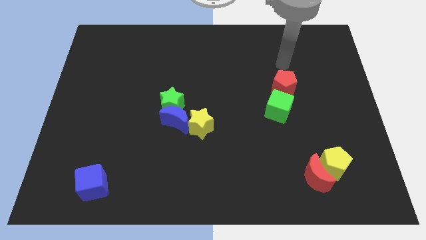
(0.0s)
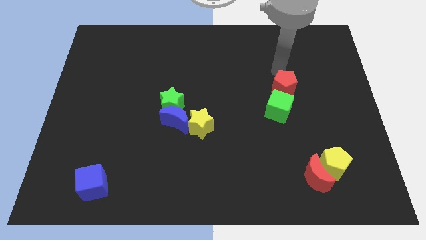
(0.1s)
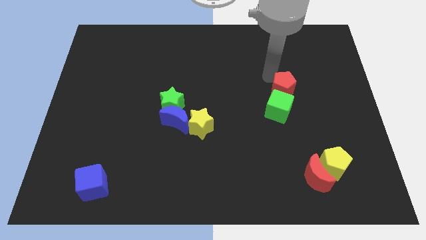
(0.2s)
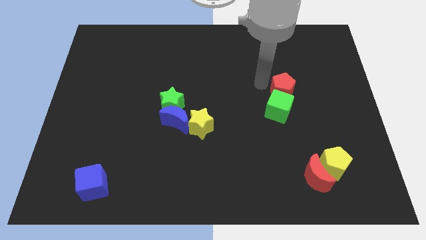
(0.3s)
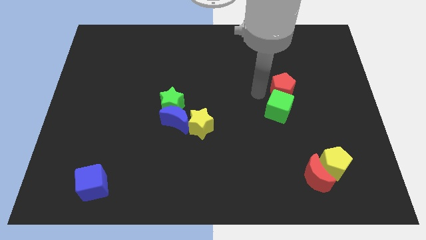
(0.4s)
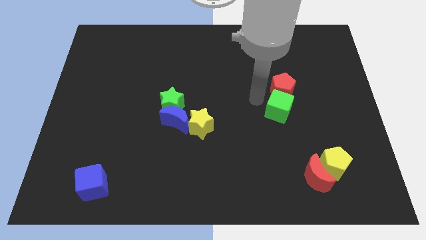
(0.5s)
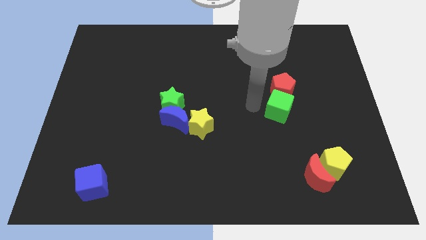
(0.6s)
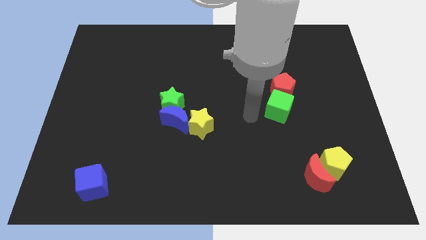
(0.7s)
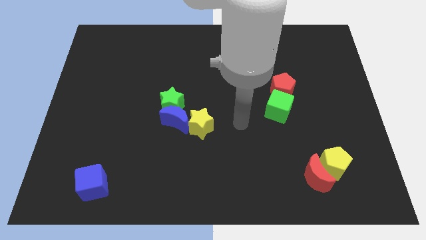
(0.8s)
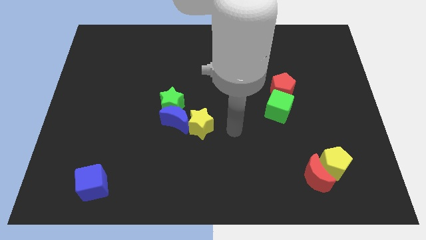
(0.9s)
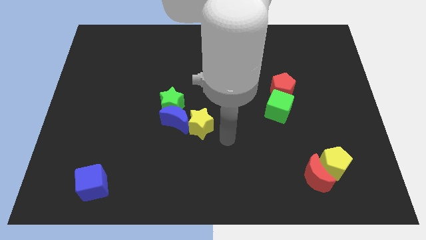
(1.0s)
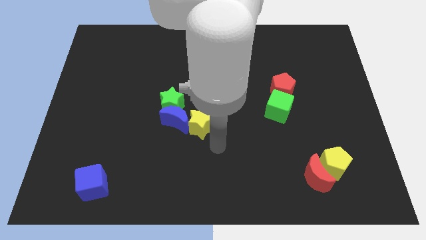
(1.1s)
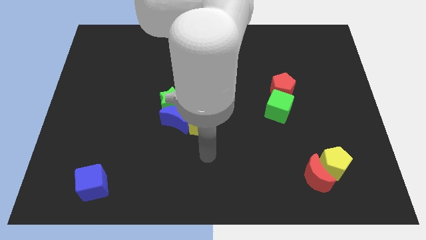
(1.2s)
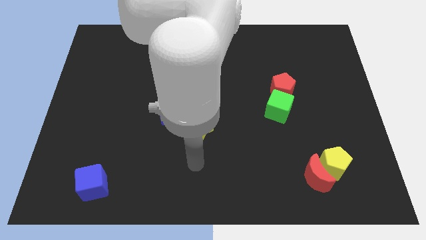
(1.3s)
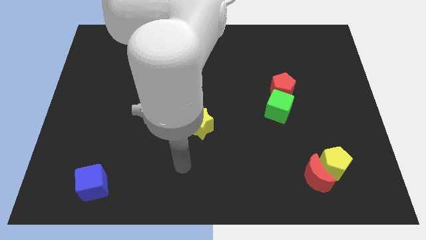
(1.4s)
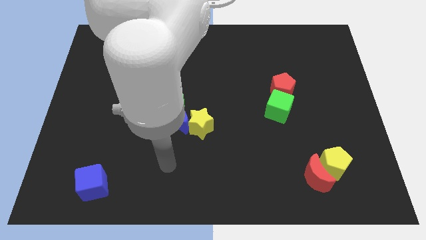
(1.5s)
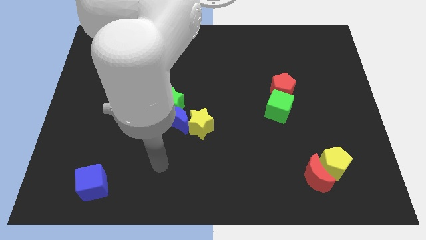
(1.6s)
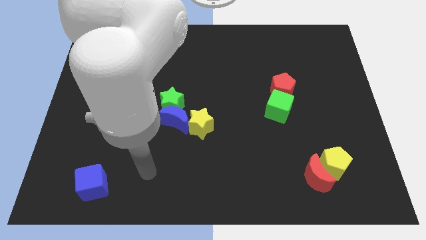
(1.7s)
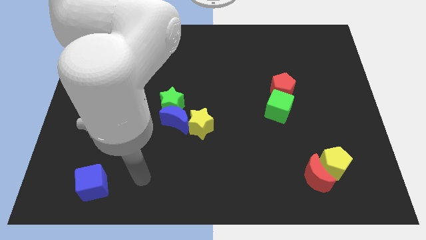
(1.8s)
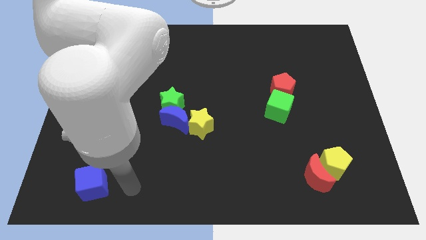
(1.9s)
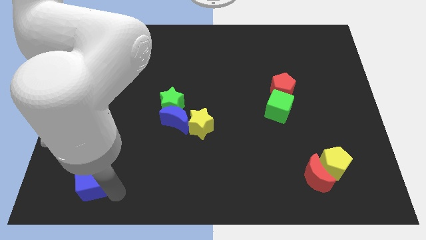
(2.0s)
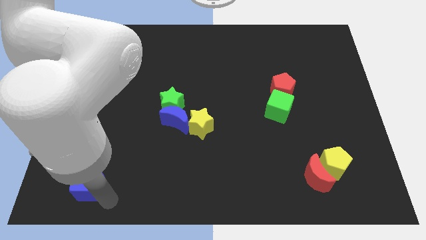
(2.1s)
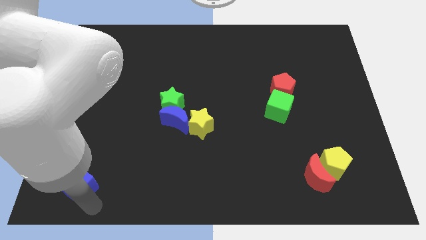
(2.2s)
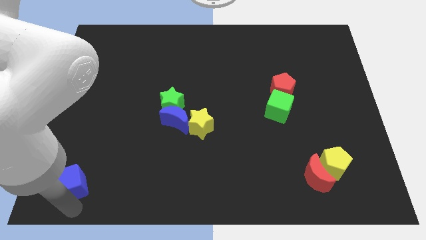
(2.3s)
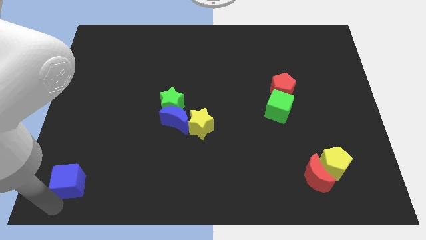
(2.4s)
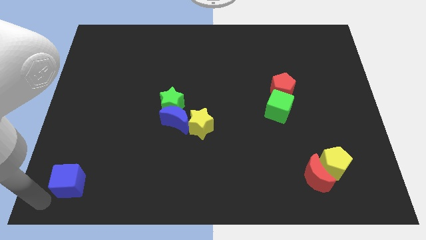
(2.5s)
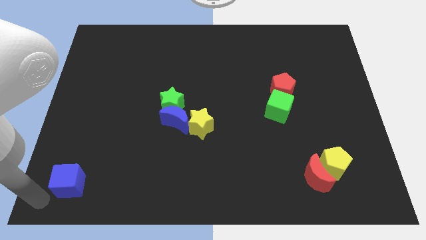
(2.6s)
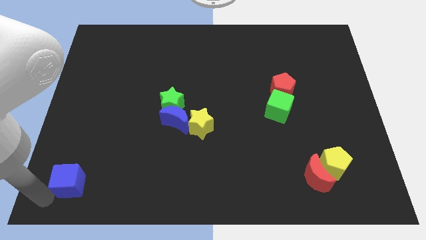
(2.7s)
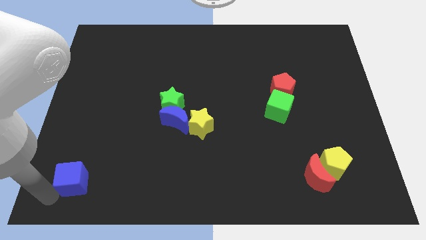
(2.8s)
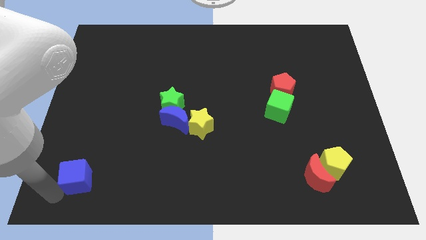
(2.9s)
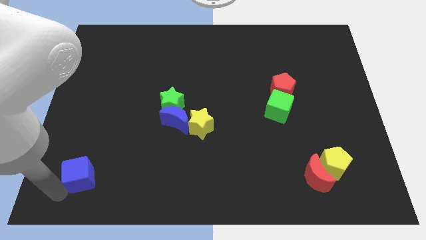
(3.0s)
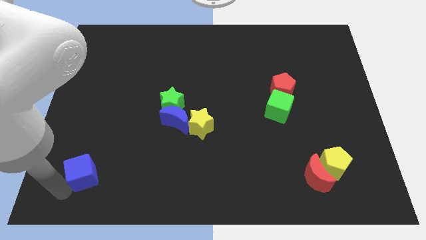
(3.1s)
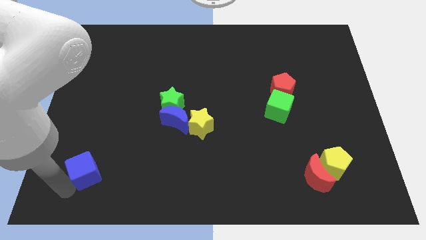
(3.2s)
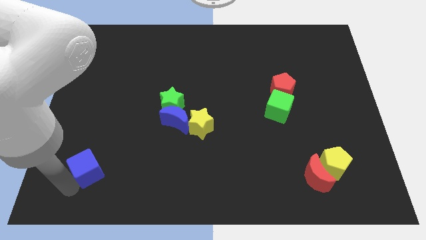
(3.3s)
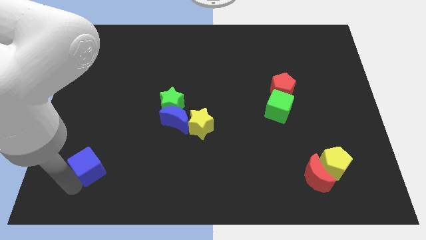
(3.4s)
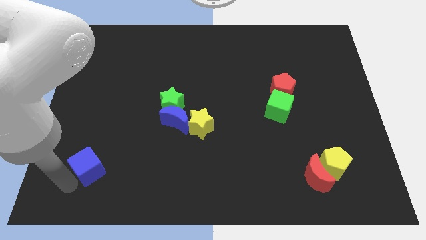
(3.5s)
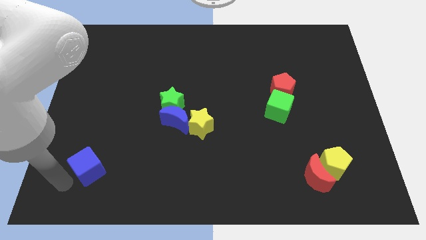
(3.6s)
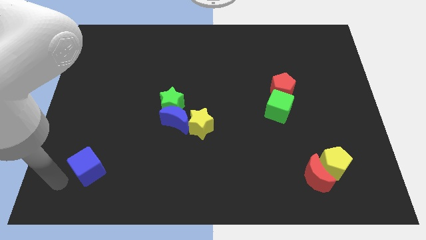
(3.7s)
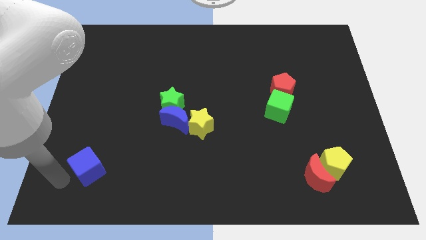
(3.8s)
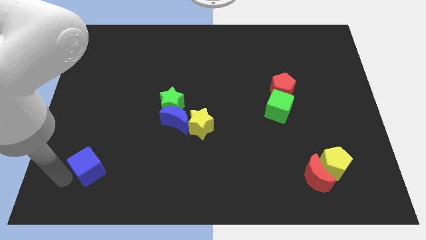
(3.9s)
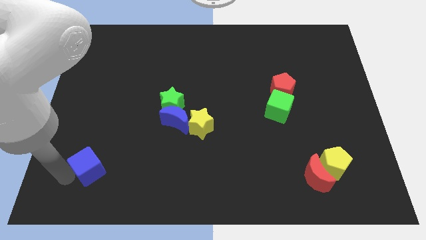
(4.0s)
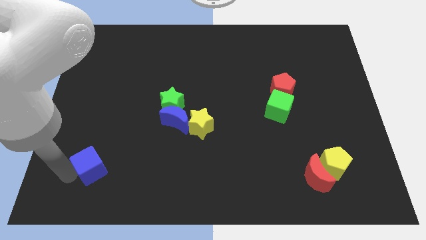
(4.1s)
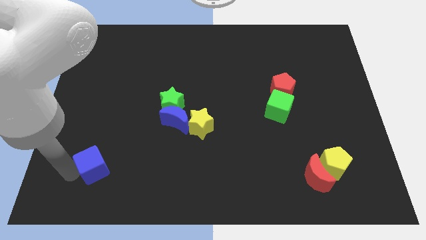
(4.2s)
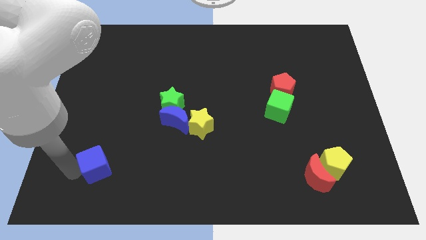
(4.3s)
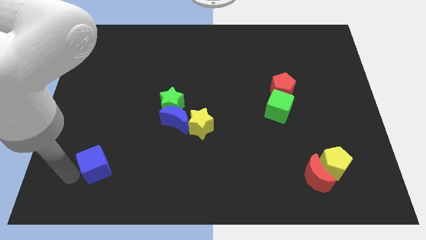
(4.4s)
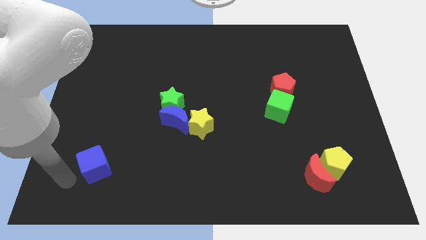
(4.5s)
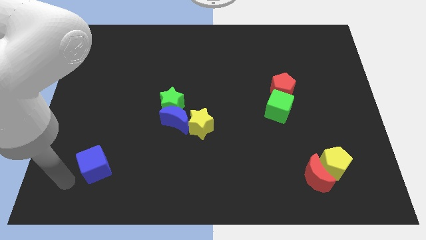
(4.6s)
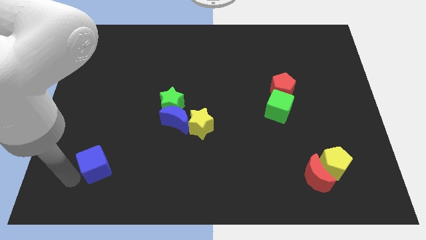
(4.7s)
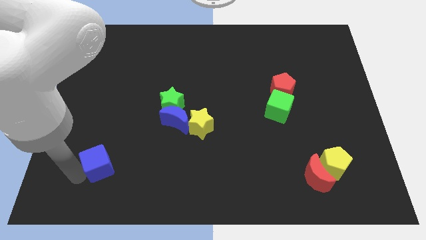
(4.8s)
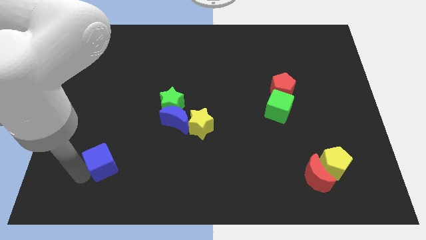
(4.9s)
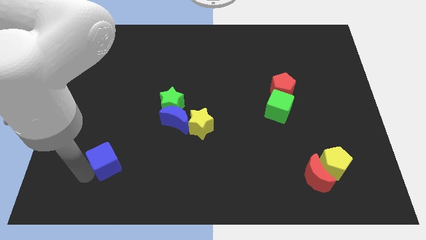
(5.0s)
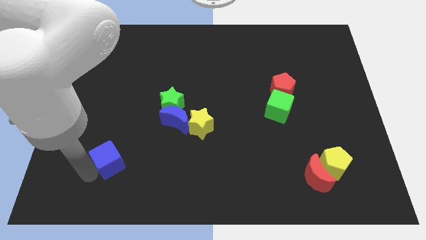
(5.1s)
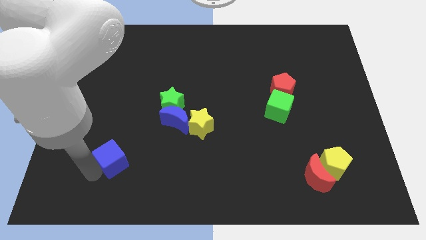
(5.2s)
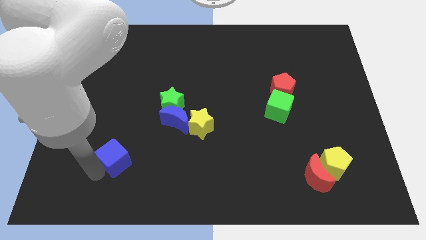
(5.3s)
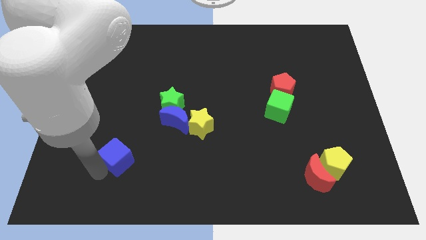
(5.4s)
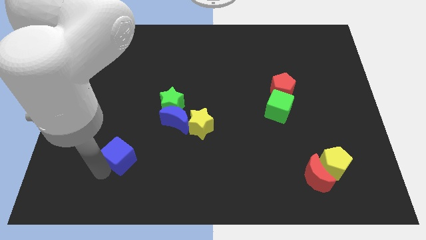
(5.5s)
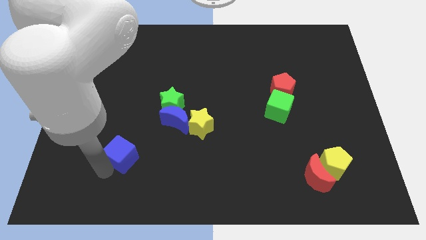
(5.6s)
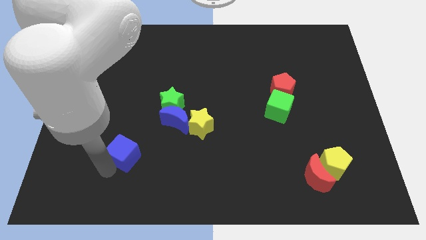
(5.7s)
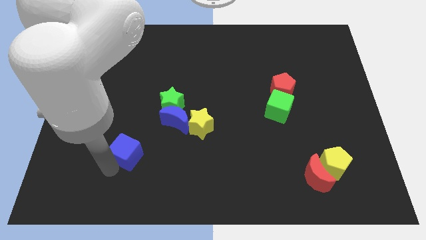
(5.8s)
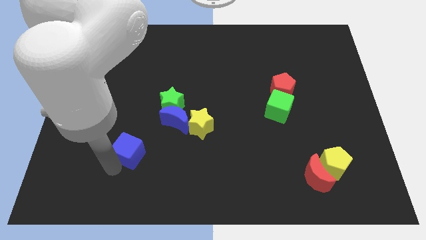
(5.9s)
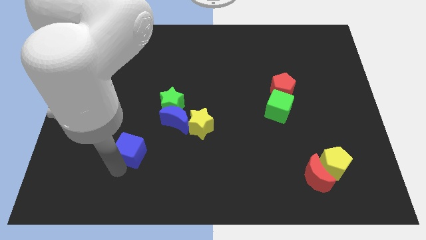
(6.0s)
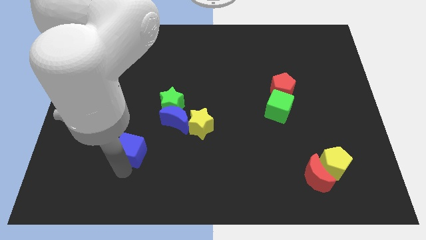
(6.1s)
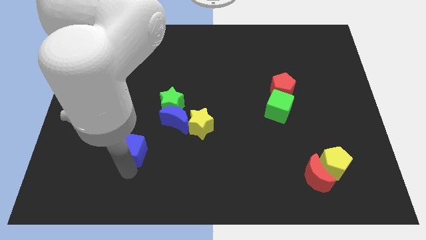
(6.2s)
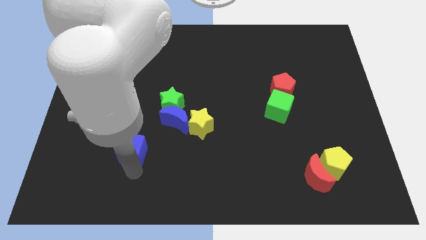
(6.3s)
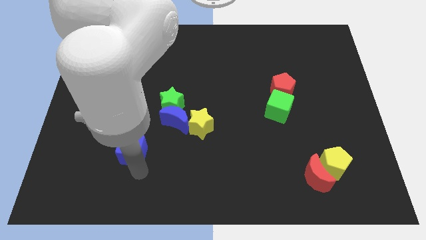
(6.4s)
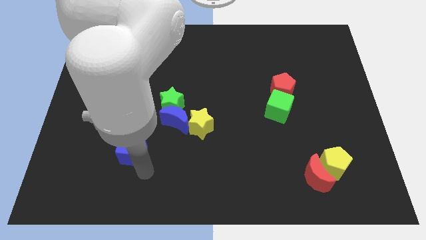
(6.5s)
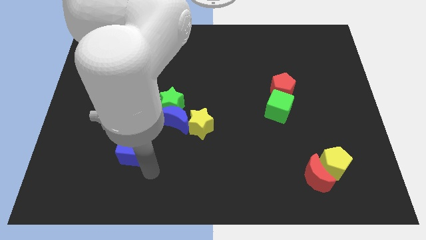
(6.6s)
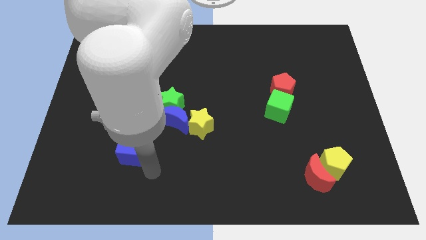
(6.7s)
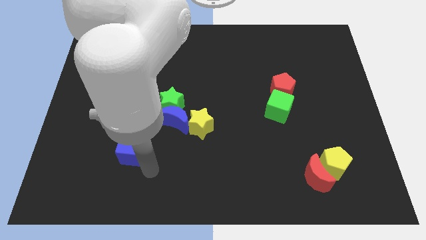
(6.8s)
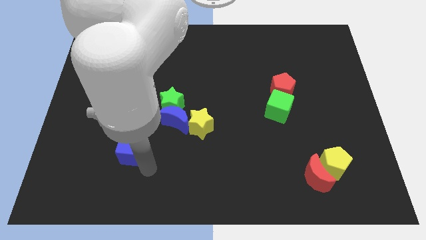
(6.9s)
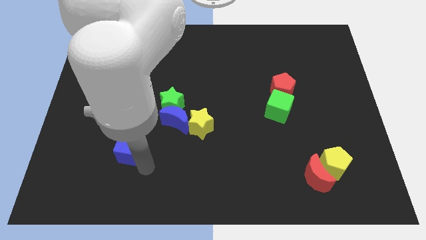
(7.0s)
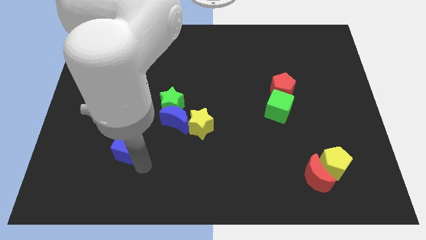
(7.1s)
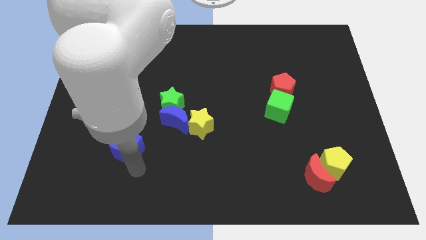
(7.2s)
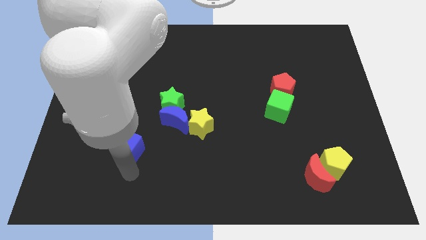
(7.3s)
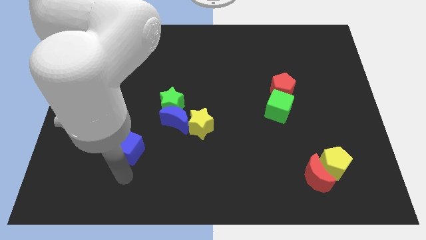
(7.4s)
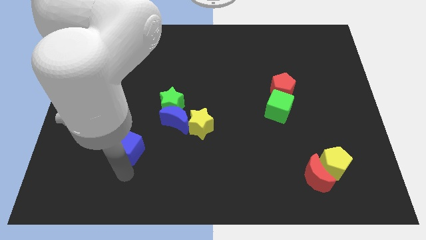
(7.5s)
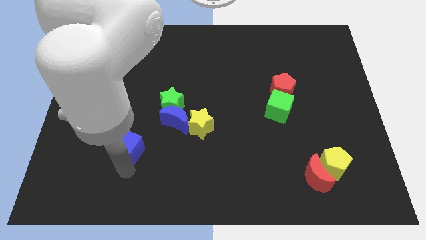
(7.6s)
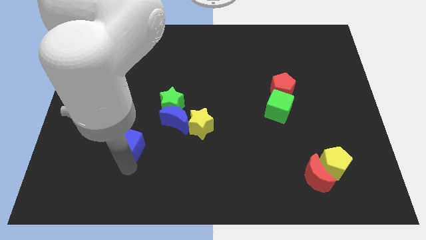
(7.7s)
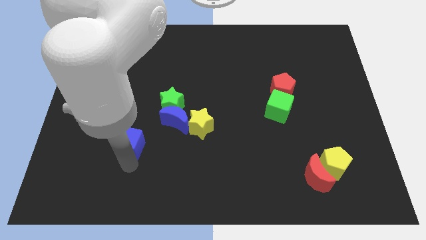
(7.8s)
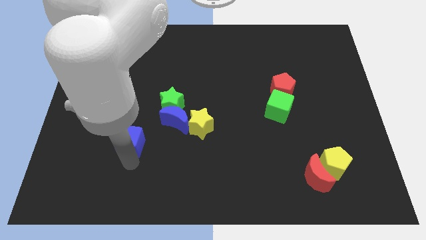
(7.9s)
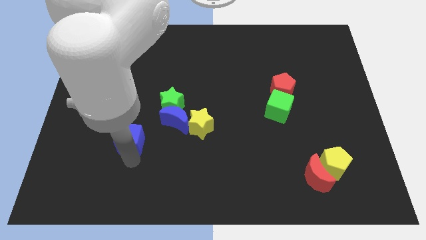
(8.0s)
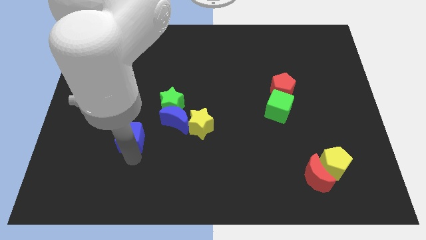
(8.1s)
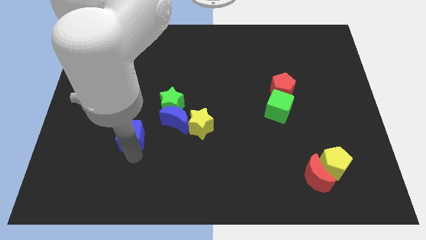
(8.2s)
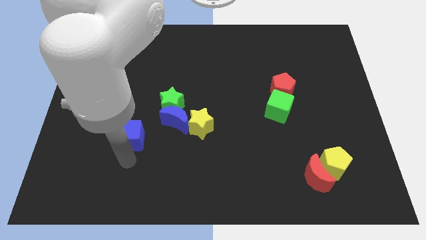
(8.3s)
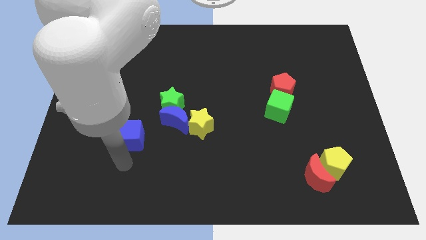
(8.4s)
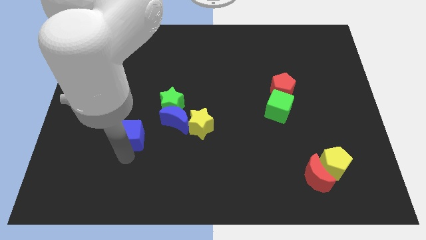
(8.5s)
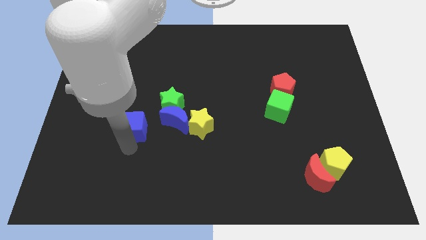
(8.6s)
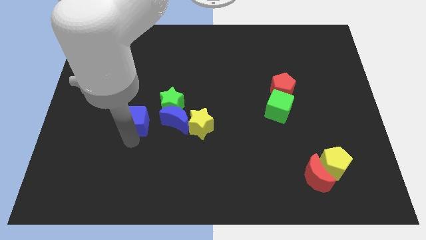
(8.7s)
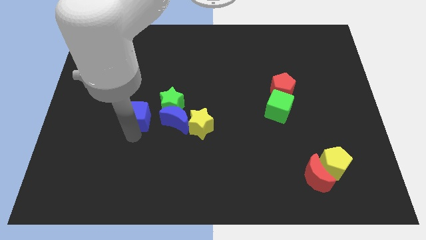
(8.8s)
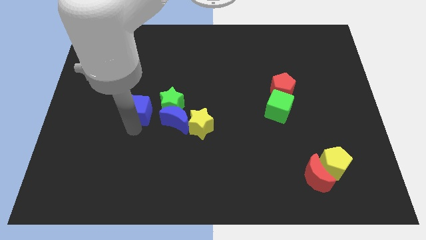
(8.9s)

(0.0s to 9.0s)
move the blue cube diagonally up and to the left of the blue moon
